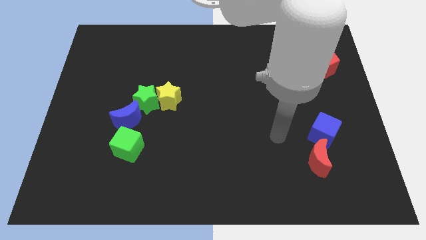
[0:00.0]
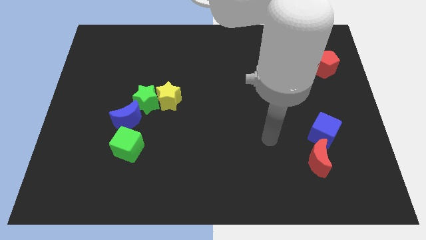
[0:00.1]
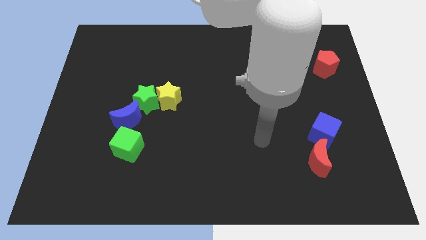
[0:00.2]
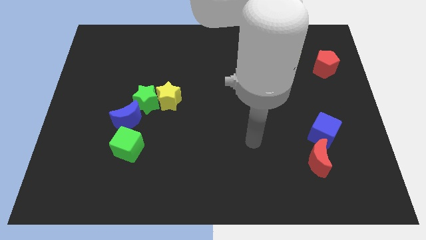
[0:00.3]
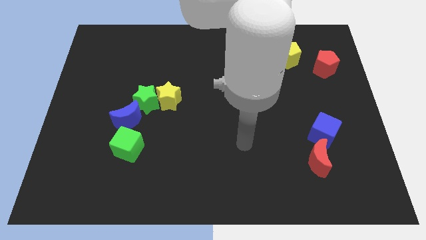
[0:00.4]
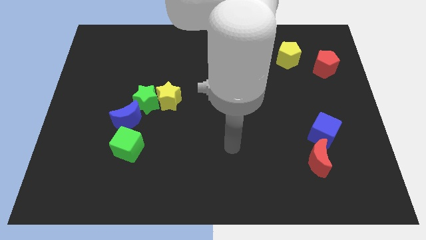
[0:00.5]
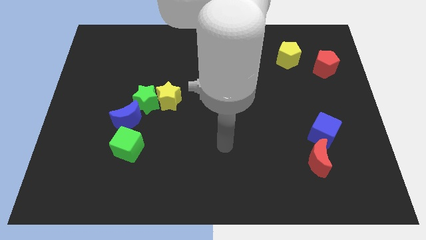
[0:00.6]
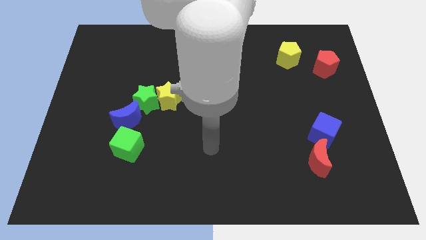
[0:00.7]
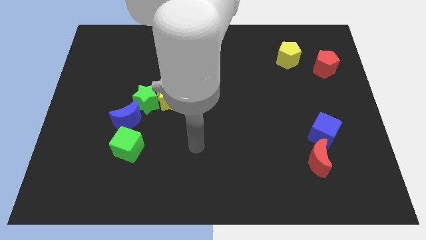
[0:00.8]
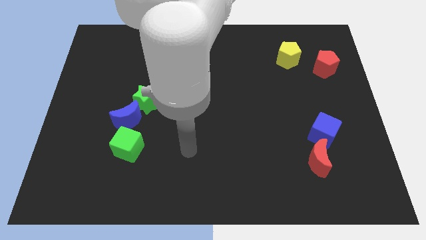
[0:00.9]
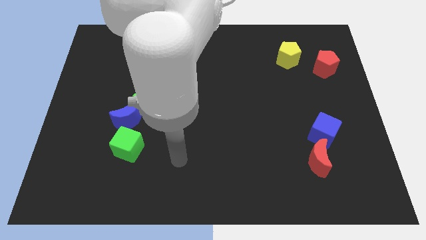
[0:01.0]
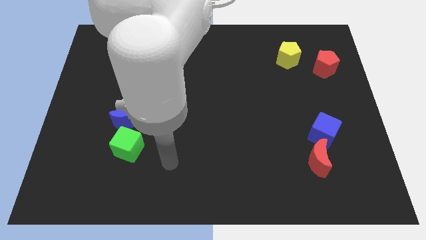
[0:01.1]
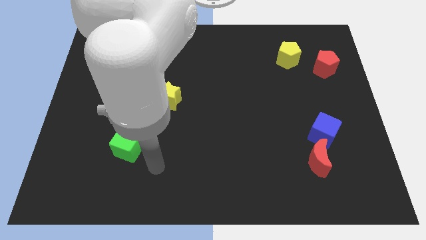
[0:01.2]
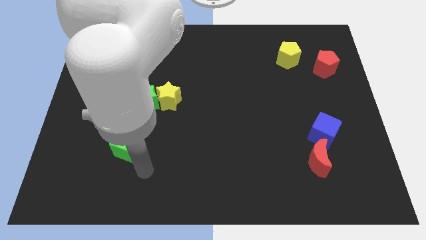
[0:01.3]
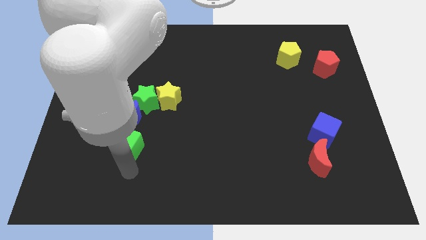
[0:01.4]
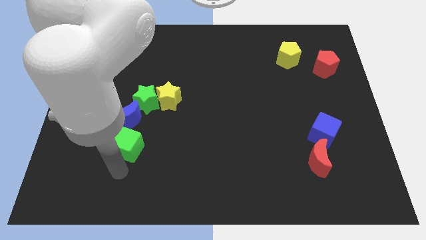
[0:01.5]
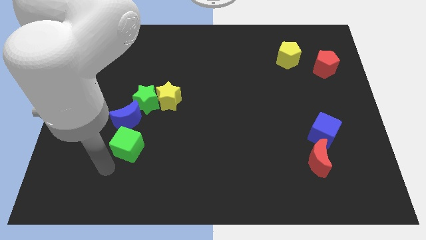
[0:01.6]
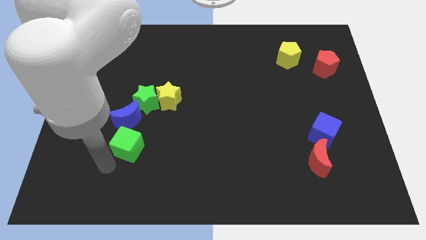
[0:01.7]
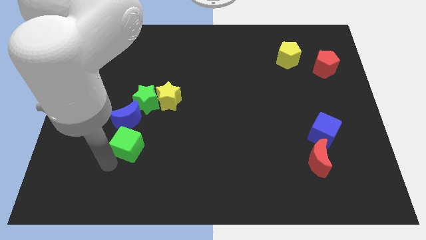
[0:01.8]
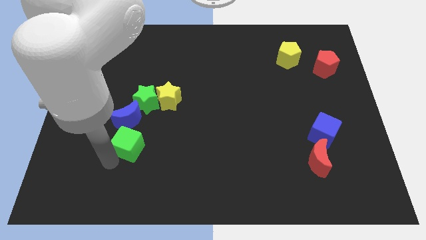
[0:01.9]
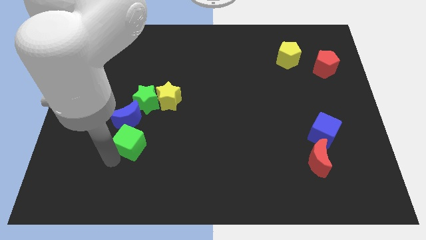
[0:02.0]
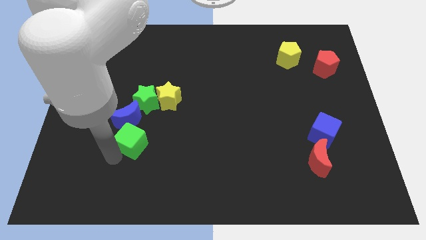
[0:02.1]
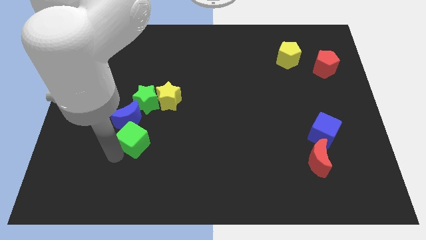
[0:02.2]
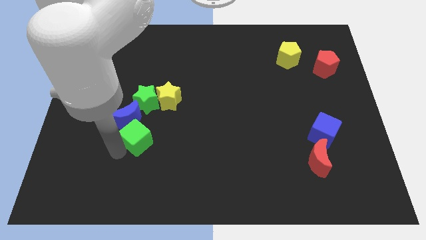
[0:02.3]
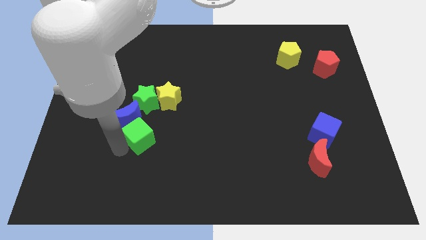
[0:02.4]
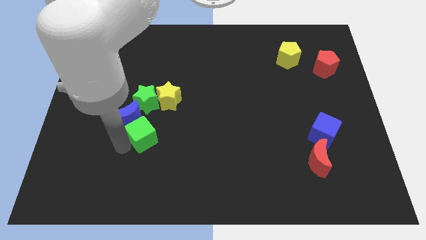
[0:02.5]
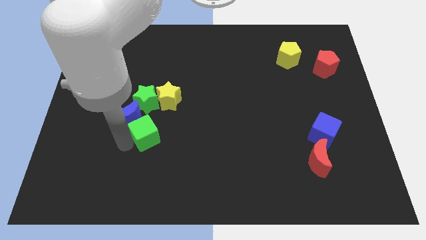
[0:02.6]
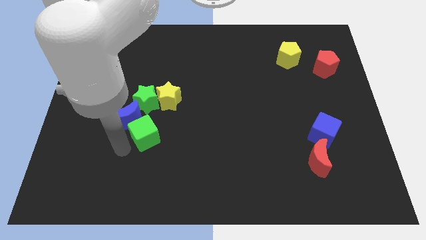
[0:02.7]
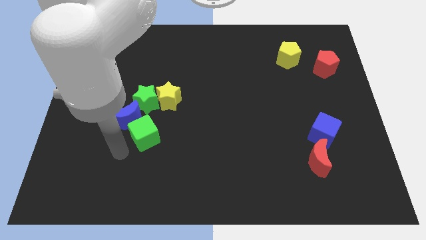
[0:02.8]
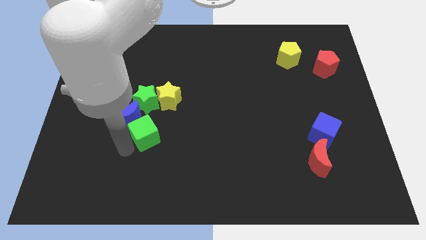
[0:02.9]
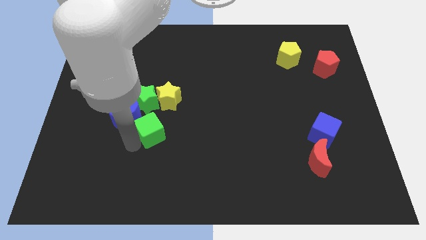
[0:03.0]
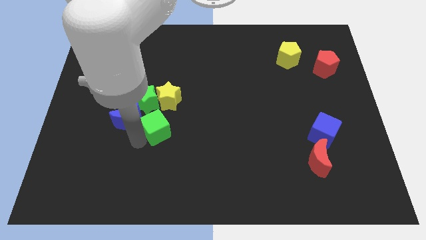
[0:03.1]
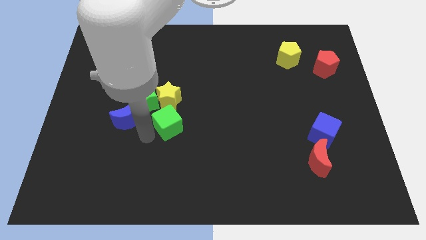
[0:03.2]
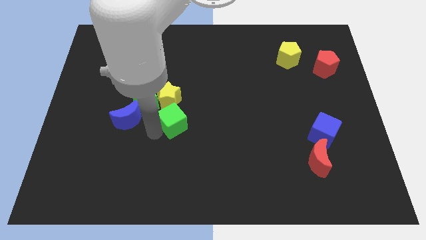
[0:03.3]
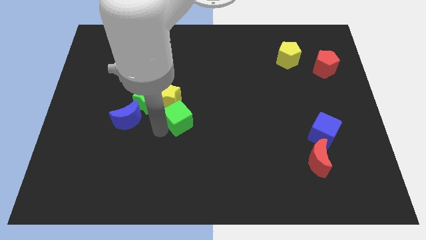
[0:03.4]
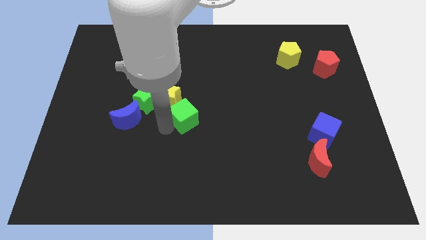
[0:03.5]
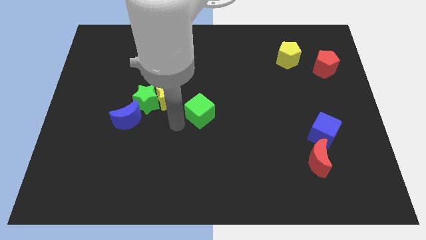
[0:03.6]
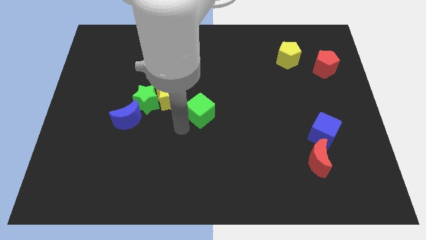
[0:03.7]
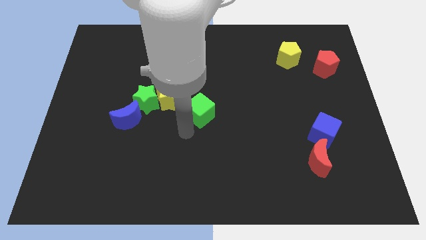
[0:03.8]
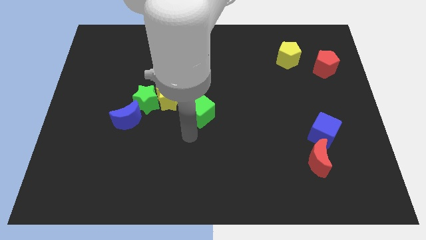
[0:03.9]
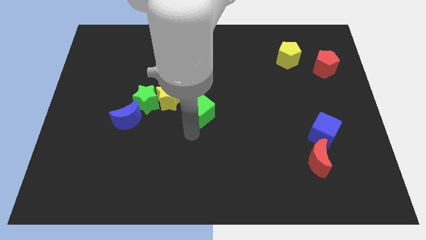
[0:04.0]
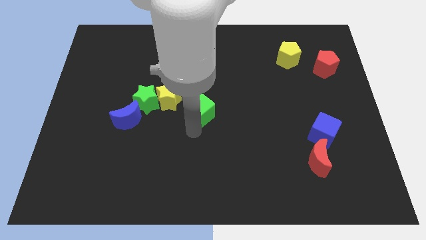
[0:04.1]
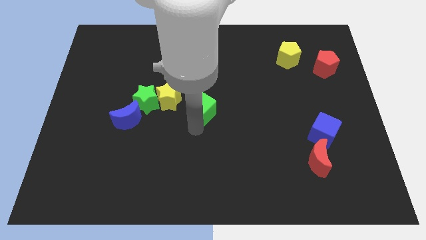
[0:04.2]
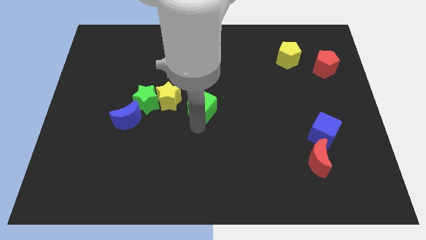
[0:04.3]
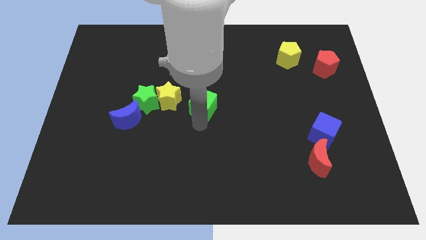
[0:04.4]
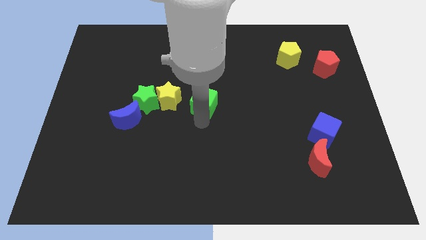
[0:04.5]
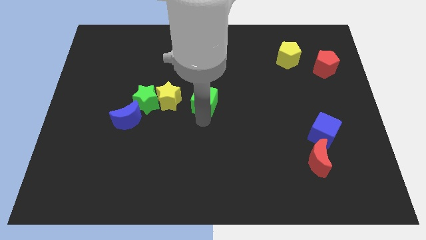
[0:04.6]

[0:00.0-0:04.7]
slide the green cube diagonally upwards and to the right

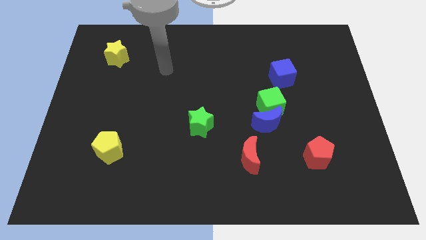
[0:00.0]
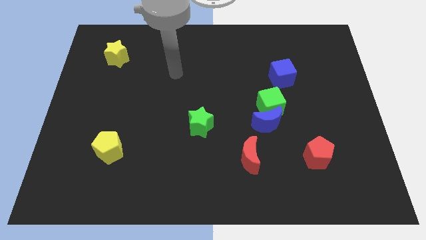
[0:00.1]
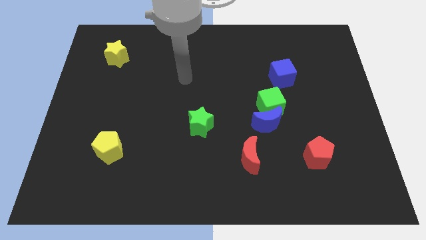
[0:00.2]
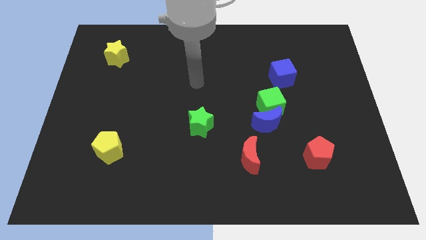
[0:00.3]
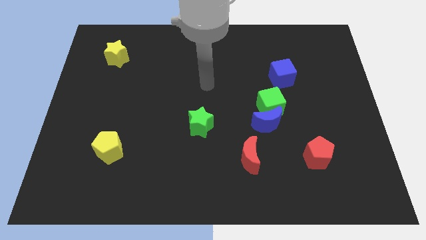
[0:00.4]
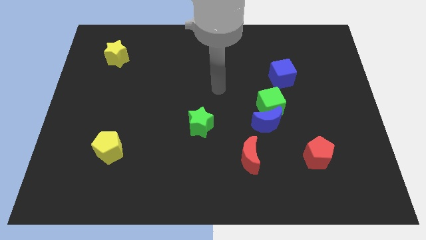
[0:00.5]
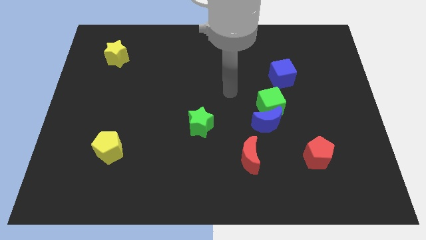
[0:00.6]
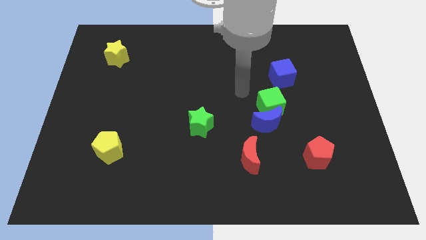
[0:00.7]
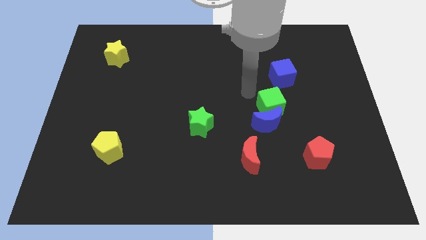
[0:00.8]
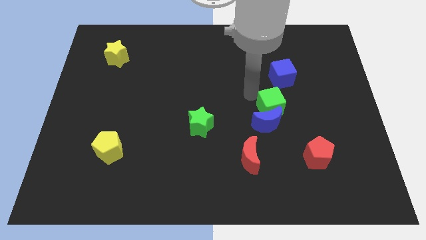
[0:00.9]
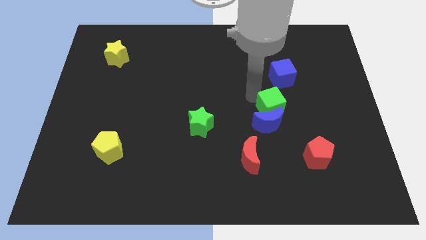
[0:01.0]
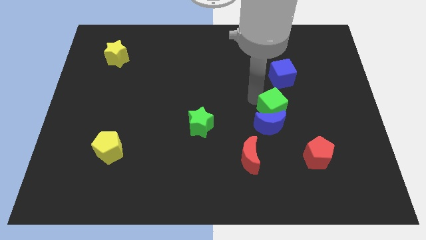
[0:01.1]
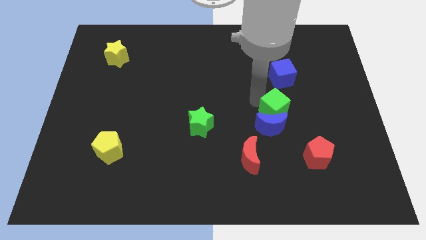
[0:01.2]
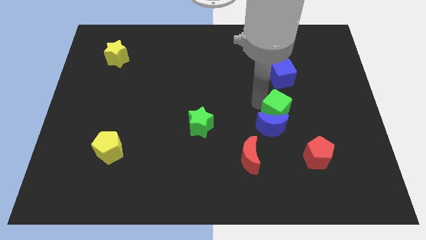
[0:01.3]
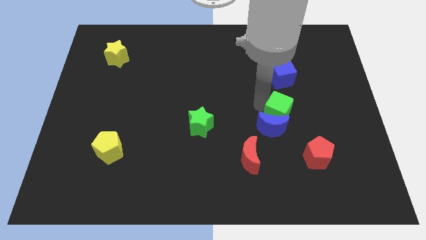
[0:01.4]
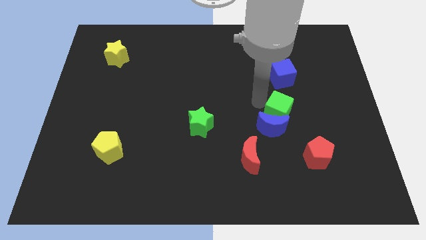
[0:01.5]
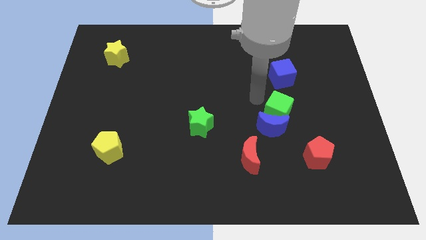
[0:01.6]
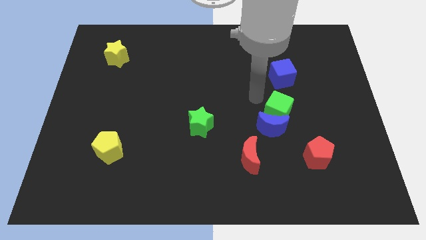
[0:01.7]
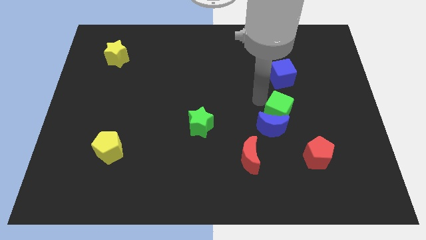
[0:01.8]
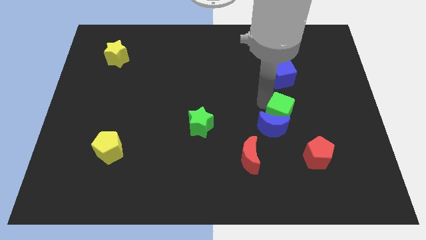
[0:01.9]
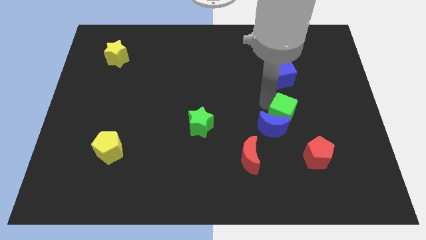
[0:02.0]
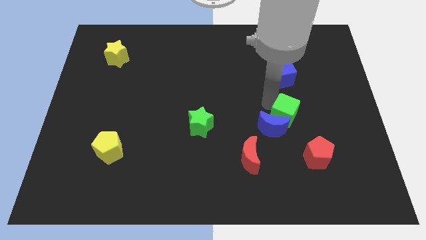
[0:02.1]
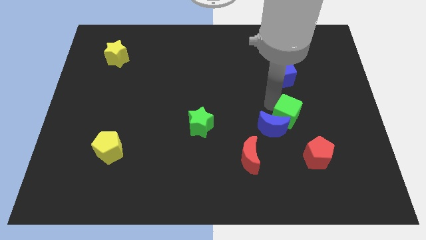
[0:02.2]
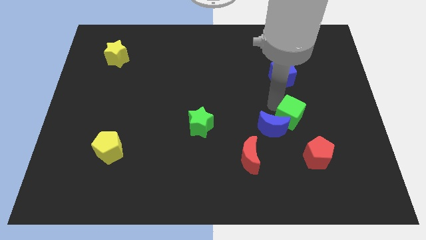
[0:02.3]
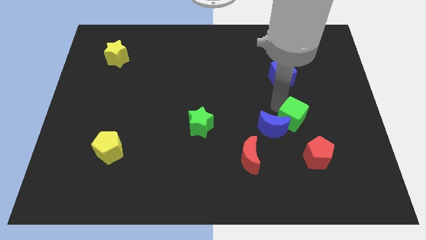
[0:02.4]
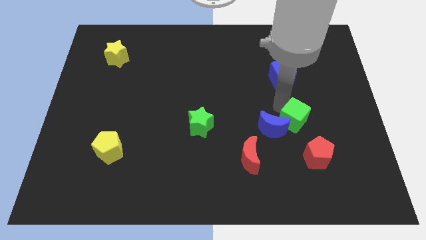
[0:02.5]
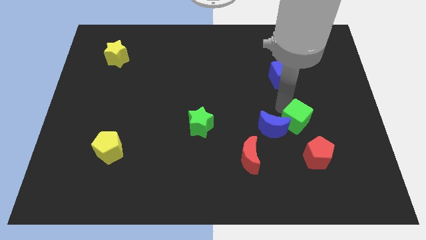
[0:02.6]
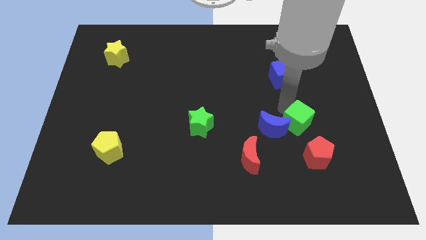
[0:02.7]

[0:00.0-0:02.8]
push the green cube somewhat downwards and then right

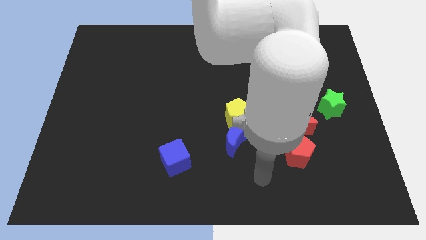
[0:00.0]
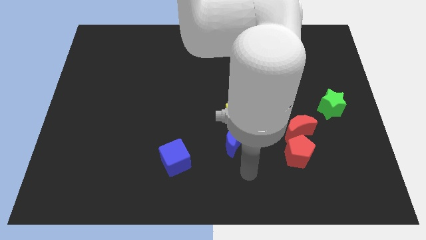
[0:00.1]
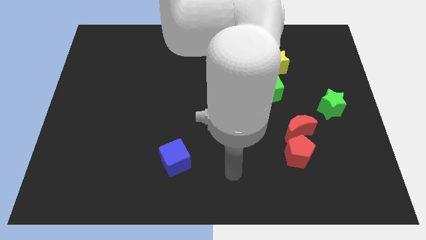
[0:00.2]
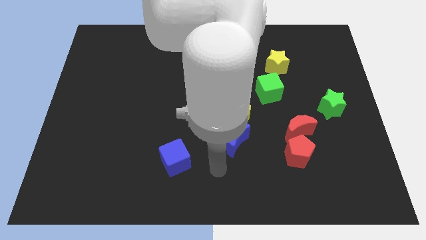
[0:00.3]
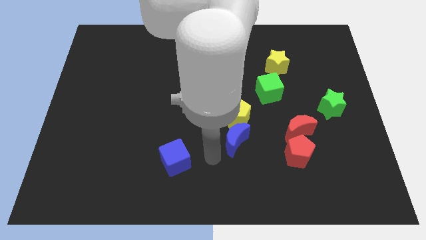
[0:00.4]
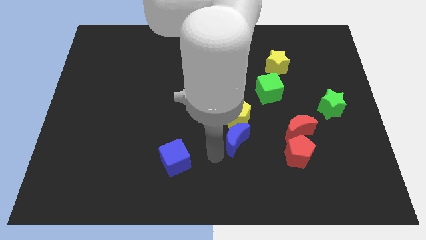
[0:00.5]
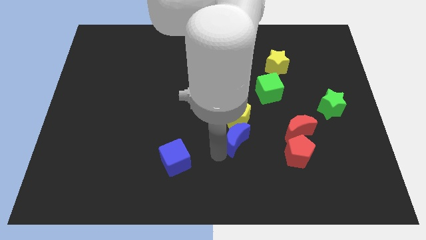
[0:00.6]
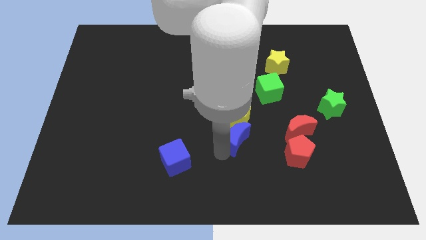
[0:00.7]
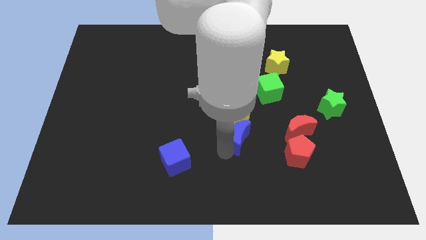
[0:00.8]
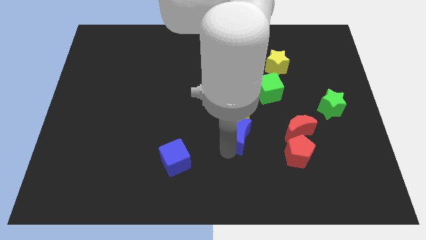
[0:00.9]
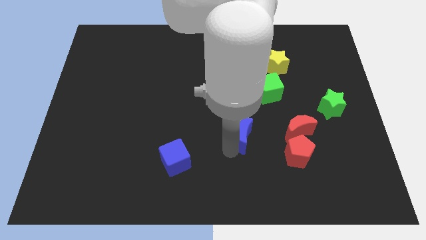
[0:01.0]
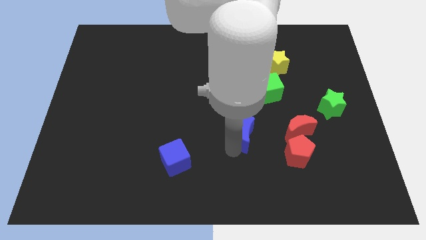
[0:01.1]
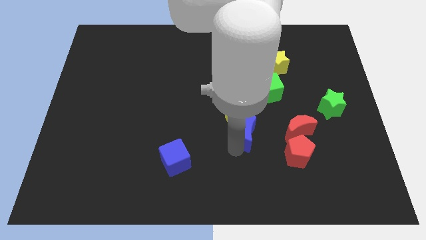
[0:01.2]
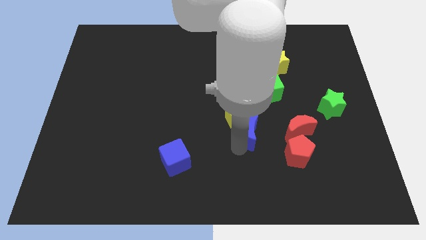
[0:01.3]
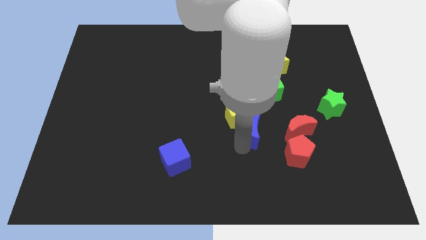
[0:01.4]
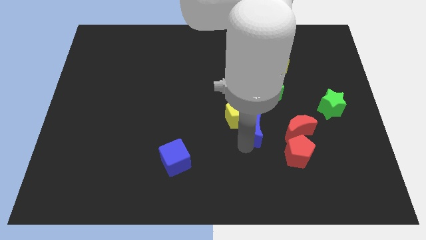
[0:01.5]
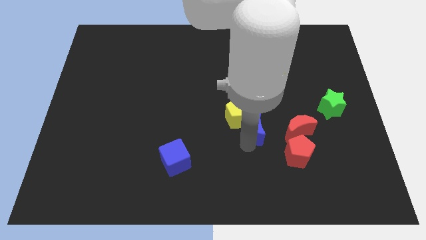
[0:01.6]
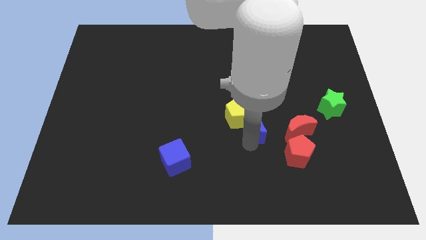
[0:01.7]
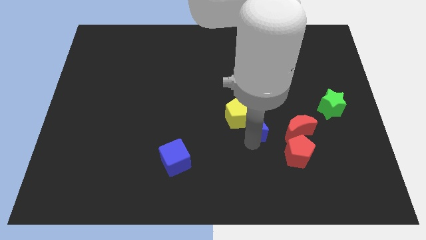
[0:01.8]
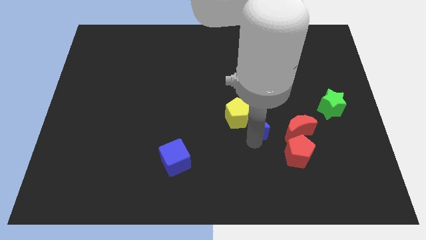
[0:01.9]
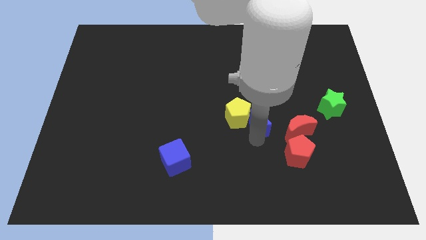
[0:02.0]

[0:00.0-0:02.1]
move the blue moon somewhat diagonally upwards and to the right
